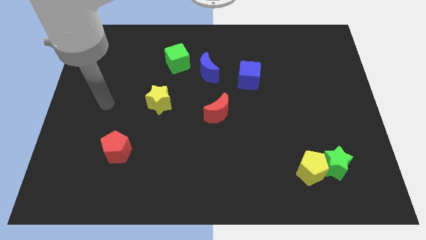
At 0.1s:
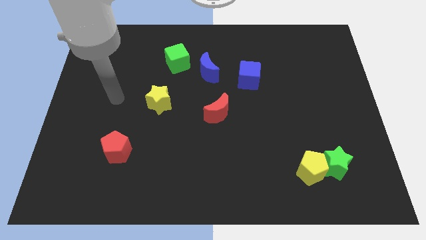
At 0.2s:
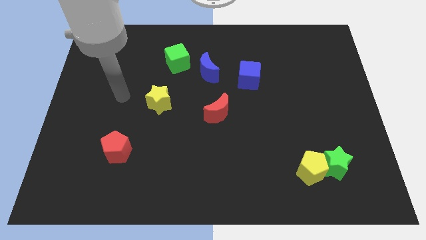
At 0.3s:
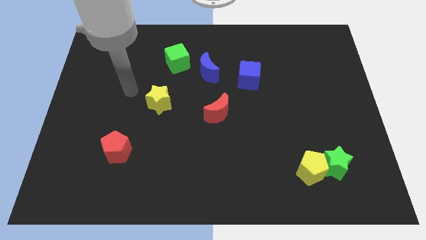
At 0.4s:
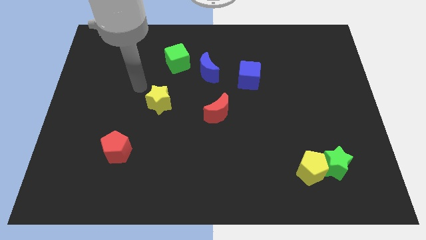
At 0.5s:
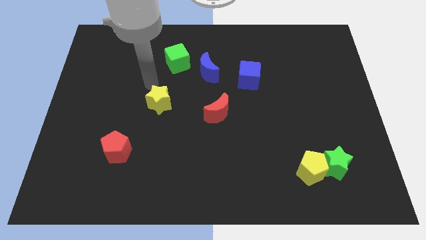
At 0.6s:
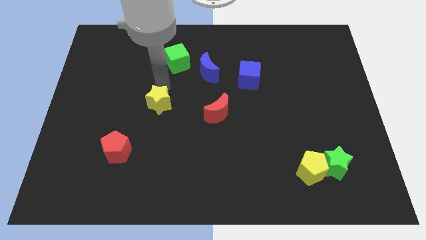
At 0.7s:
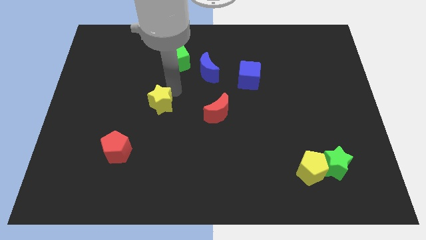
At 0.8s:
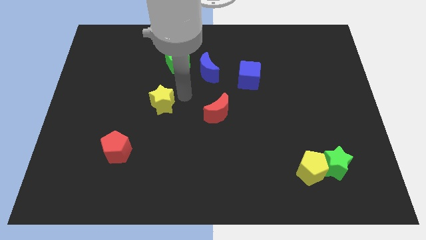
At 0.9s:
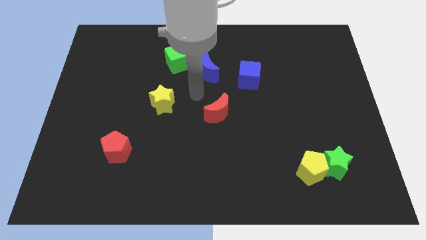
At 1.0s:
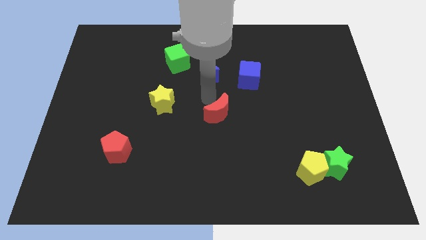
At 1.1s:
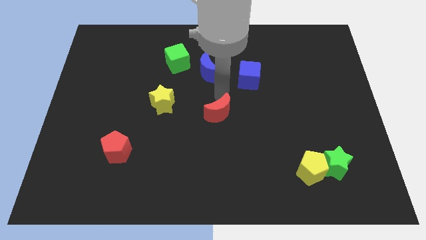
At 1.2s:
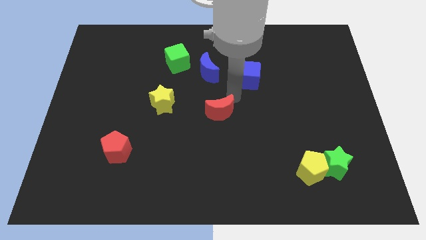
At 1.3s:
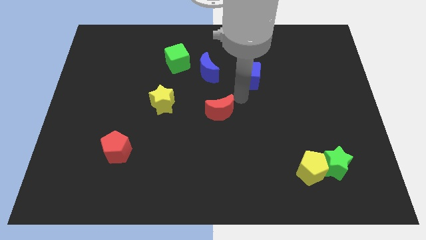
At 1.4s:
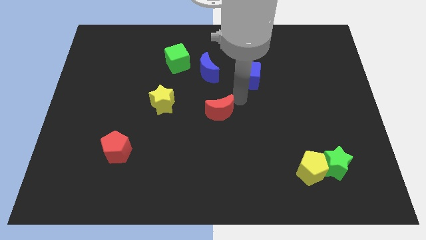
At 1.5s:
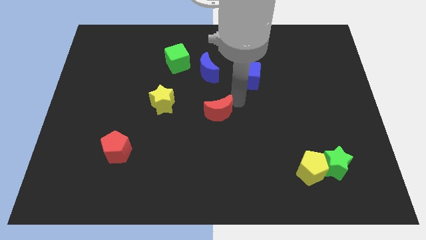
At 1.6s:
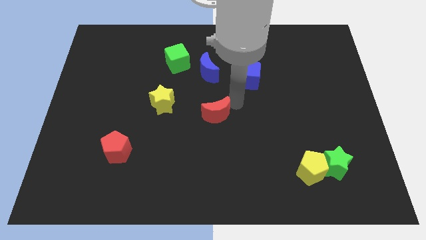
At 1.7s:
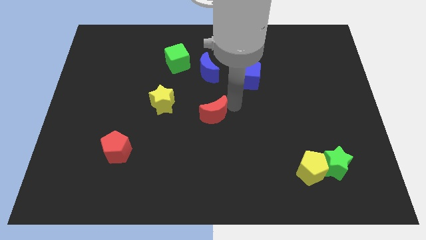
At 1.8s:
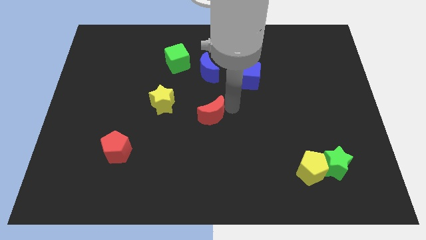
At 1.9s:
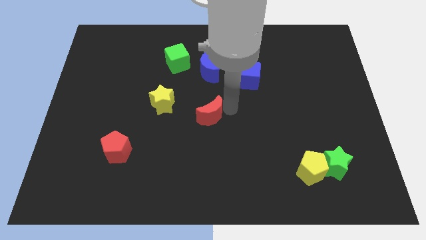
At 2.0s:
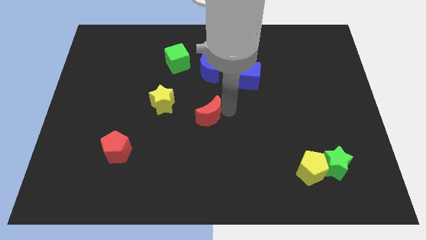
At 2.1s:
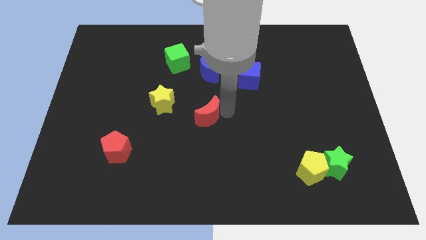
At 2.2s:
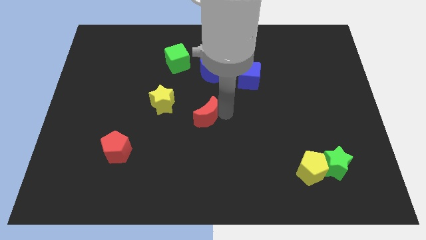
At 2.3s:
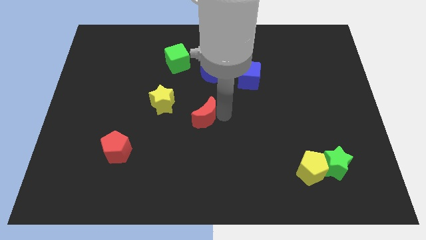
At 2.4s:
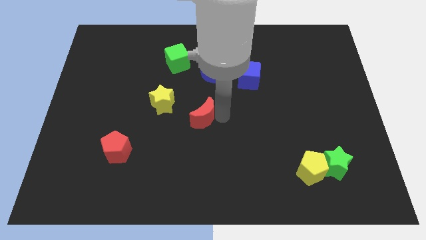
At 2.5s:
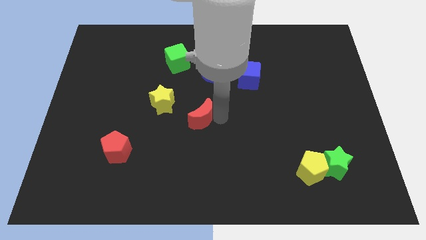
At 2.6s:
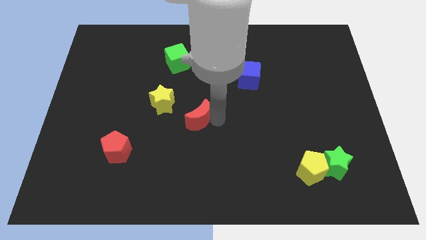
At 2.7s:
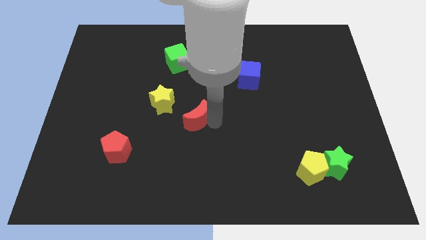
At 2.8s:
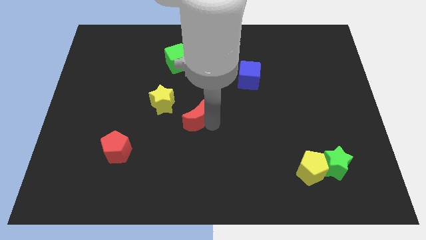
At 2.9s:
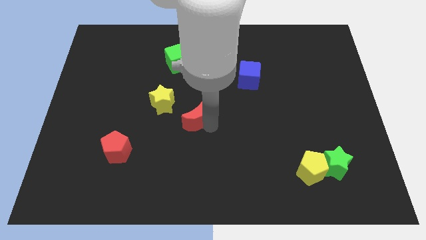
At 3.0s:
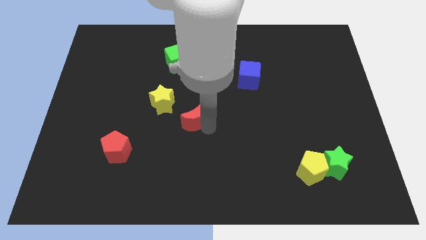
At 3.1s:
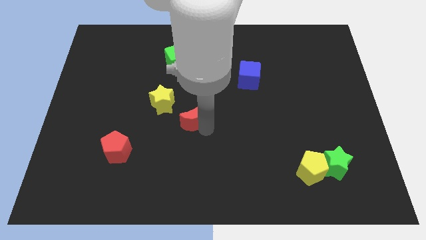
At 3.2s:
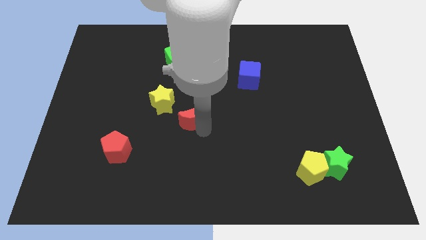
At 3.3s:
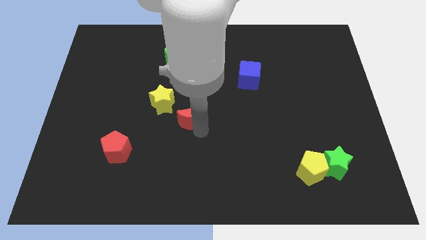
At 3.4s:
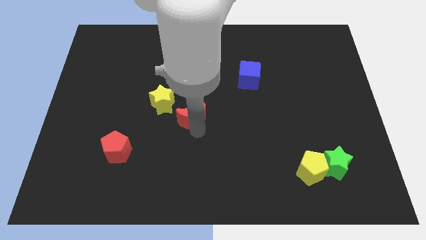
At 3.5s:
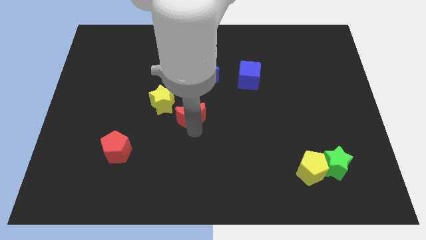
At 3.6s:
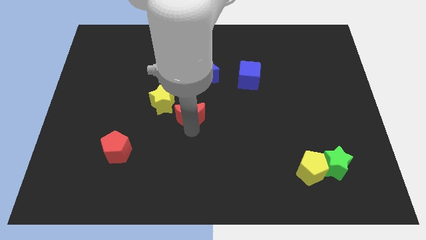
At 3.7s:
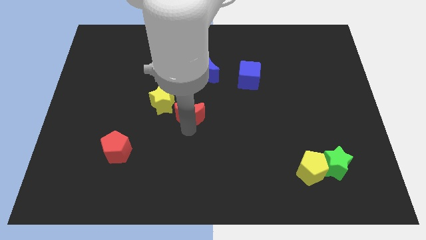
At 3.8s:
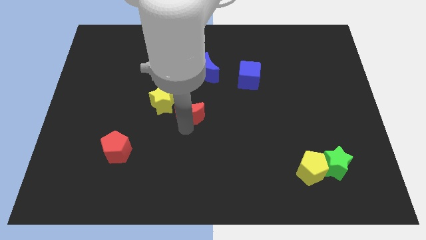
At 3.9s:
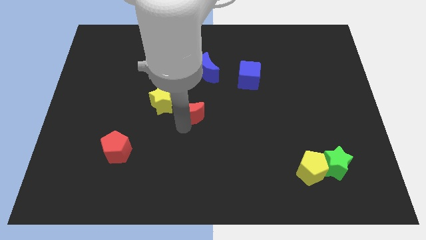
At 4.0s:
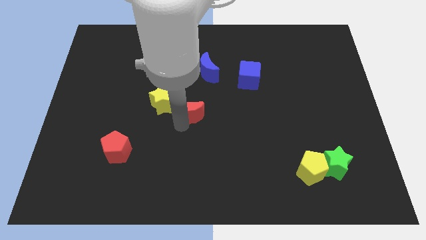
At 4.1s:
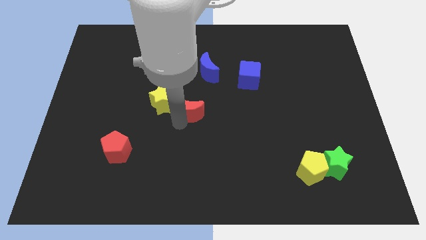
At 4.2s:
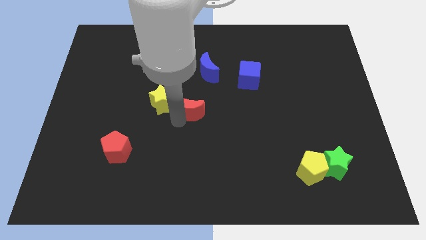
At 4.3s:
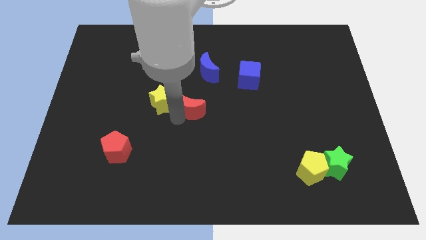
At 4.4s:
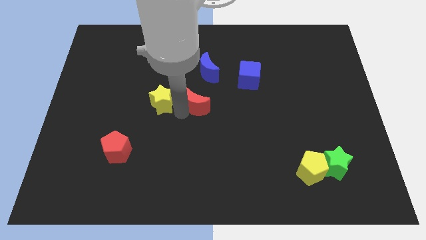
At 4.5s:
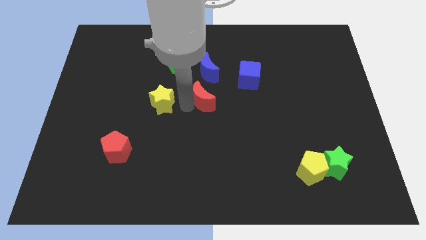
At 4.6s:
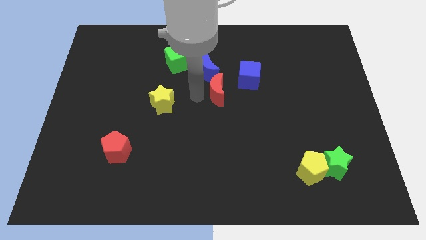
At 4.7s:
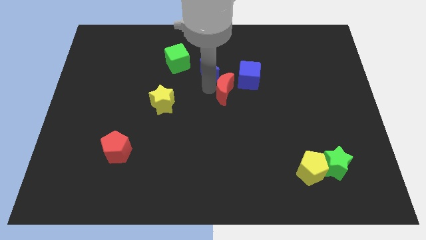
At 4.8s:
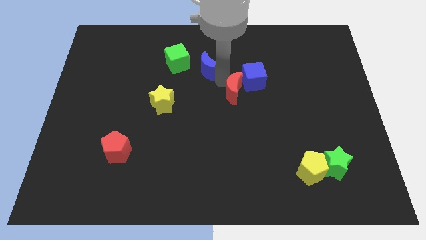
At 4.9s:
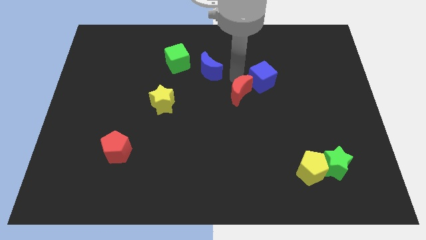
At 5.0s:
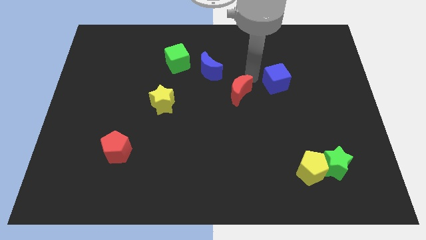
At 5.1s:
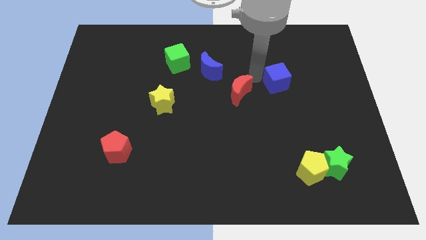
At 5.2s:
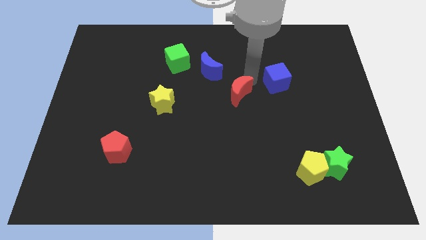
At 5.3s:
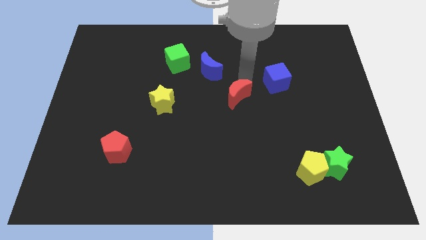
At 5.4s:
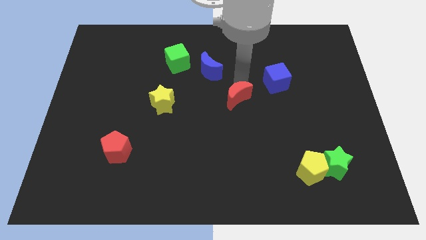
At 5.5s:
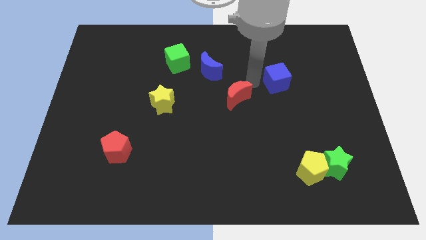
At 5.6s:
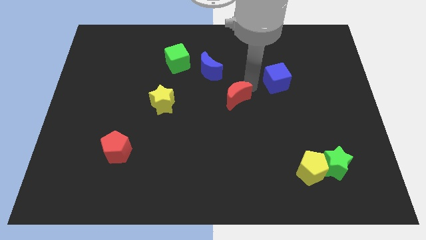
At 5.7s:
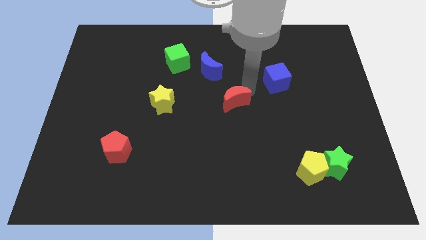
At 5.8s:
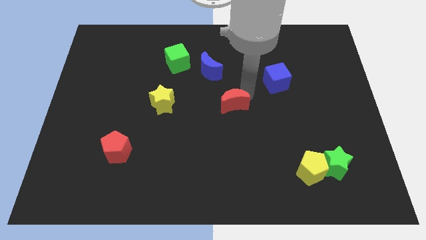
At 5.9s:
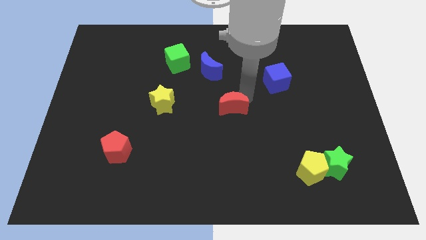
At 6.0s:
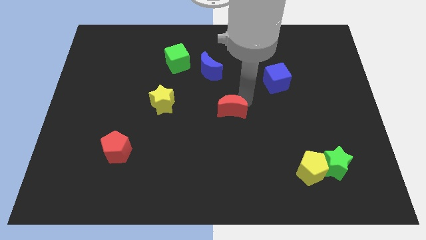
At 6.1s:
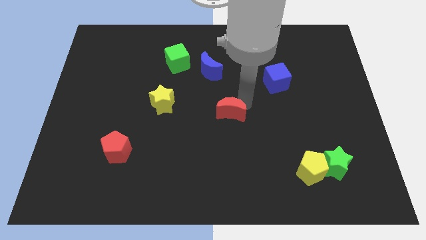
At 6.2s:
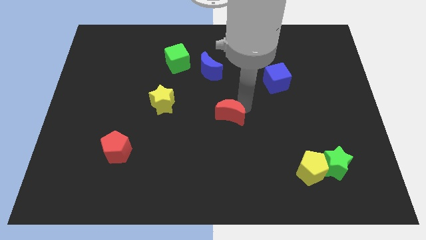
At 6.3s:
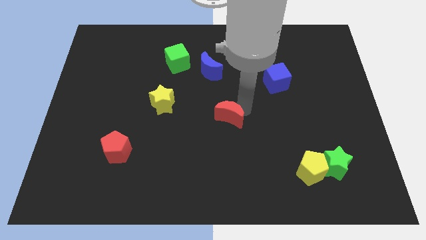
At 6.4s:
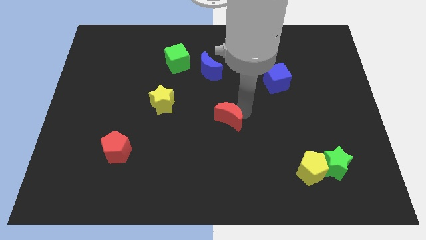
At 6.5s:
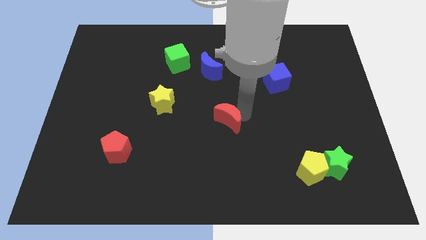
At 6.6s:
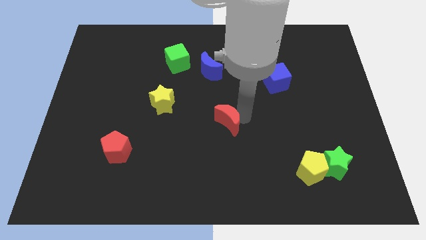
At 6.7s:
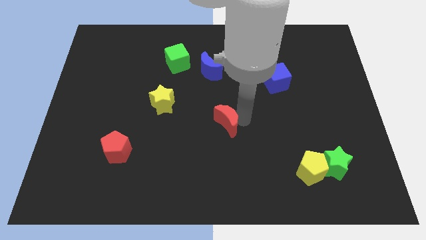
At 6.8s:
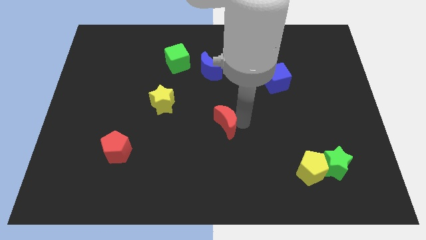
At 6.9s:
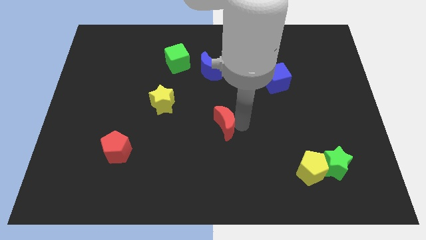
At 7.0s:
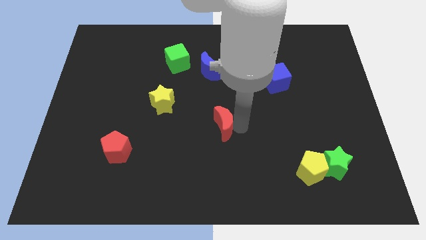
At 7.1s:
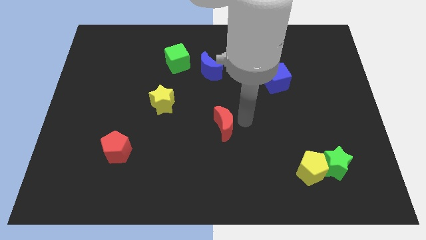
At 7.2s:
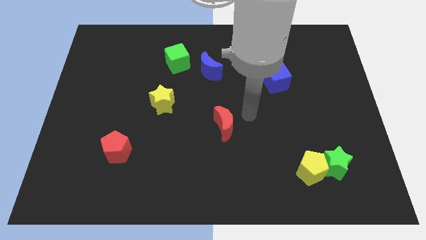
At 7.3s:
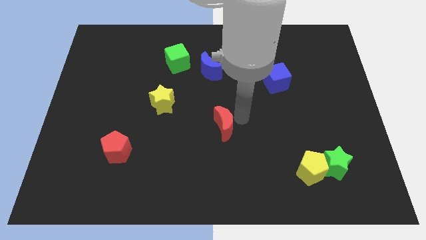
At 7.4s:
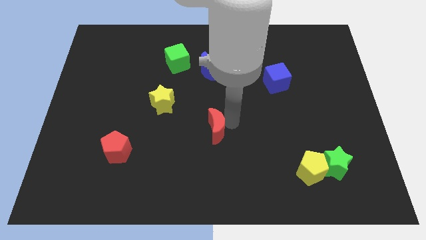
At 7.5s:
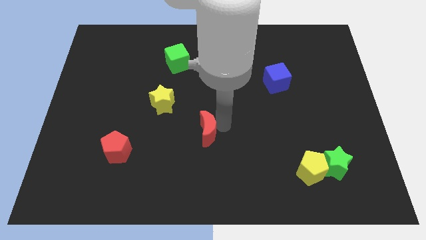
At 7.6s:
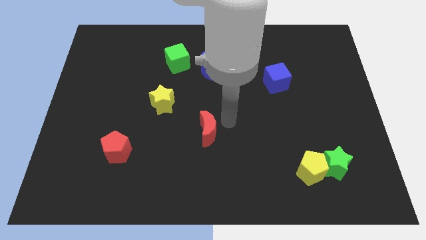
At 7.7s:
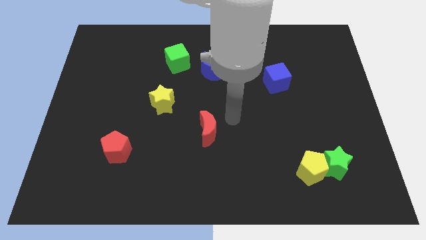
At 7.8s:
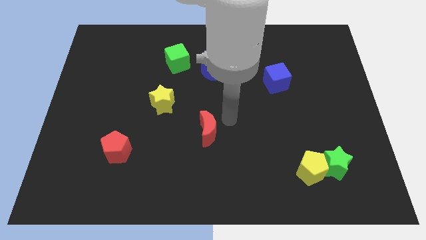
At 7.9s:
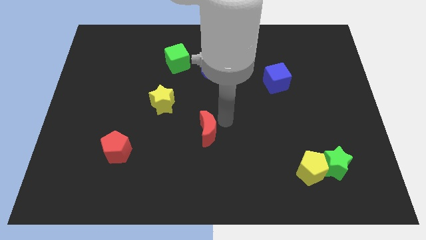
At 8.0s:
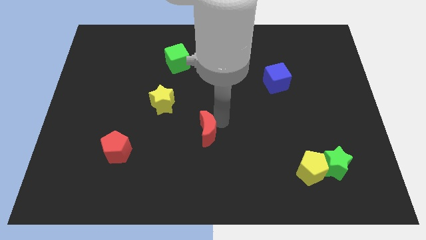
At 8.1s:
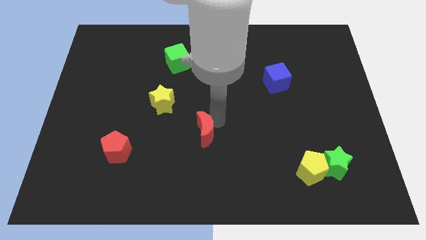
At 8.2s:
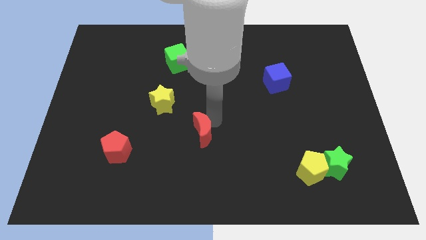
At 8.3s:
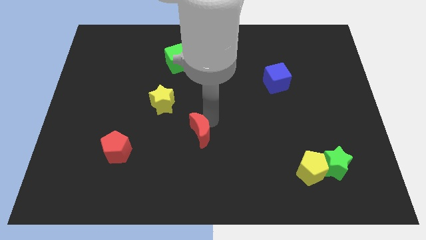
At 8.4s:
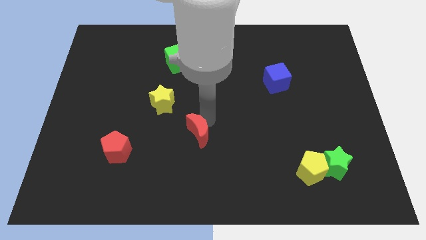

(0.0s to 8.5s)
push the red moon slightly down and then left
